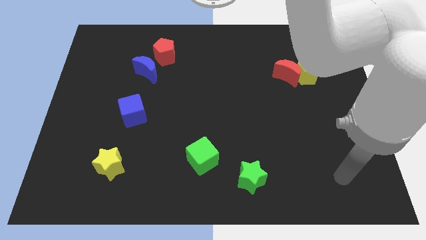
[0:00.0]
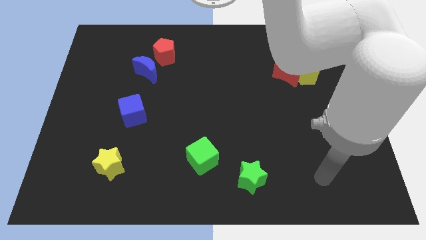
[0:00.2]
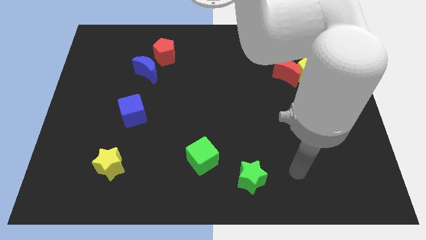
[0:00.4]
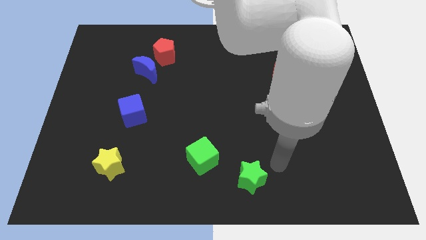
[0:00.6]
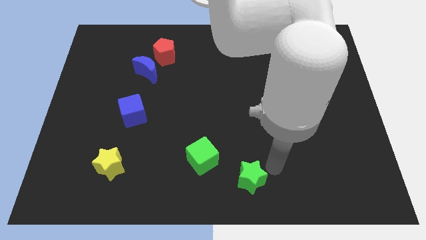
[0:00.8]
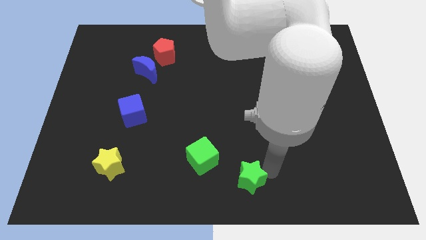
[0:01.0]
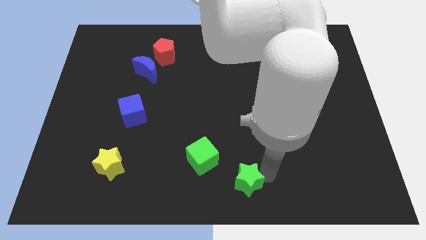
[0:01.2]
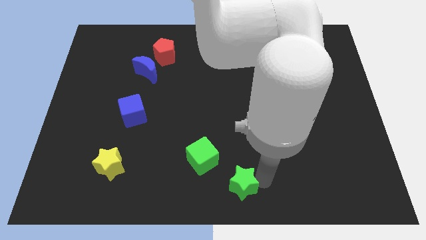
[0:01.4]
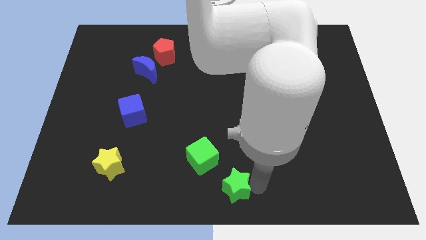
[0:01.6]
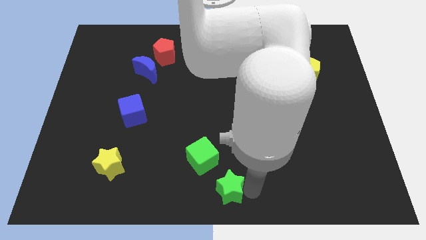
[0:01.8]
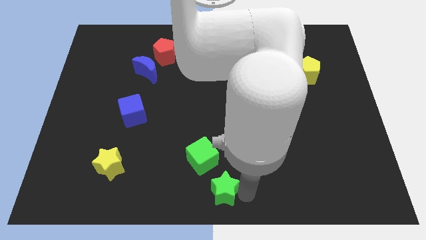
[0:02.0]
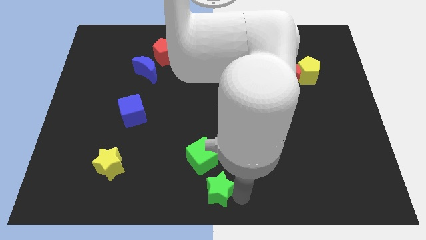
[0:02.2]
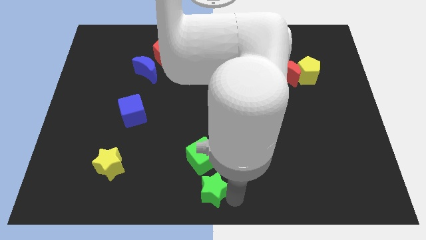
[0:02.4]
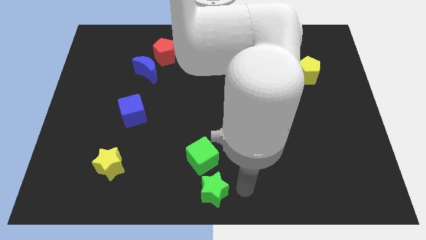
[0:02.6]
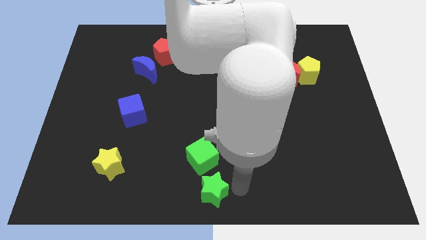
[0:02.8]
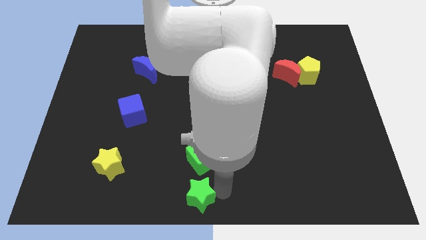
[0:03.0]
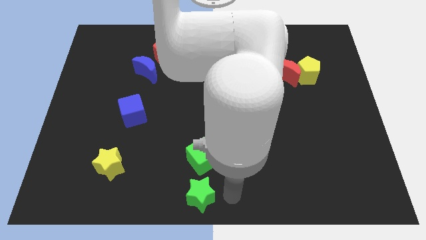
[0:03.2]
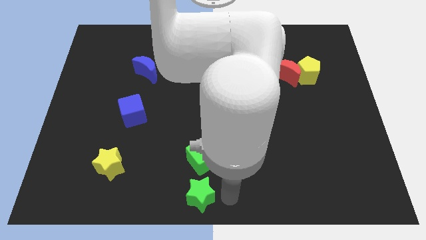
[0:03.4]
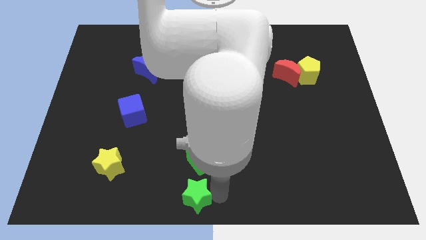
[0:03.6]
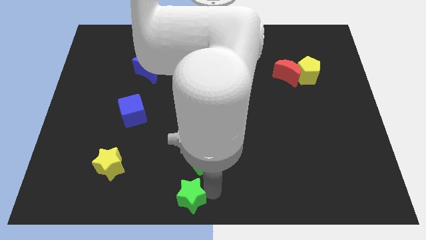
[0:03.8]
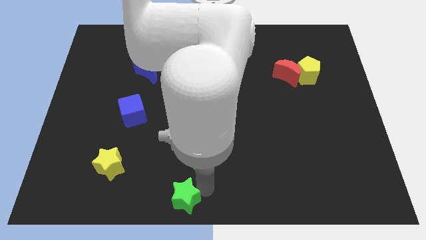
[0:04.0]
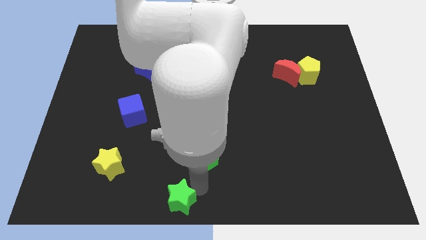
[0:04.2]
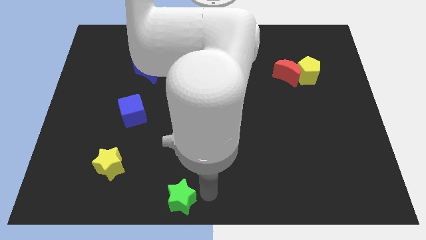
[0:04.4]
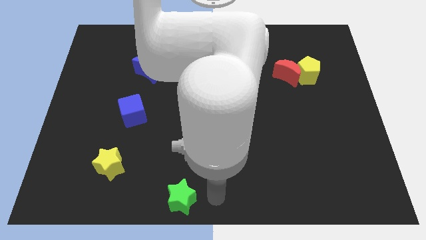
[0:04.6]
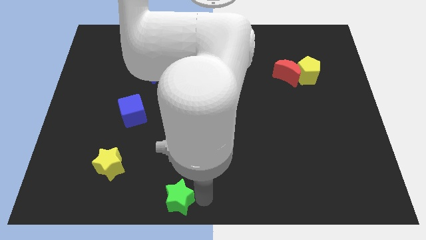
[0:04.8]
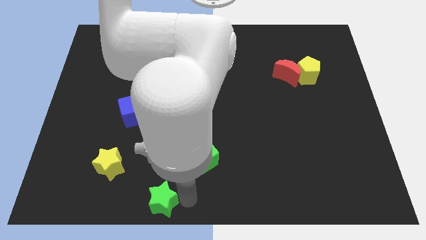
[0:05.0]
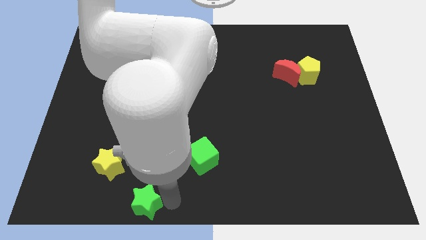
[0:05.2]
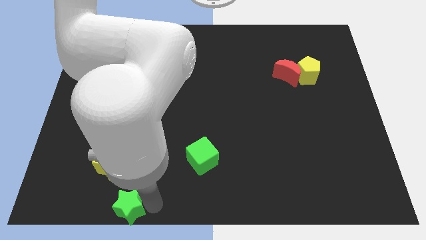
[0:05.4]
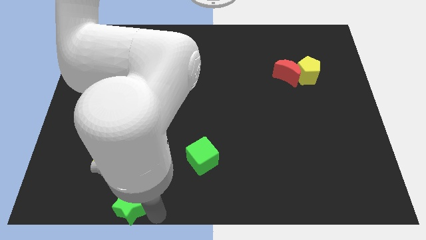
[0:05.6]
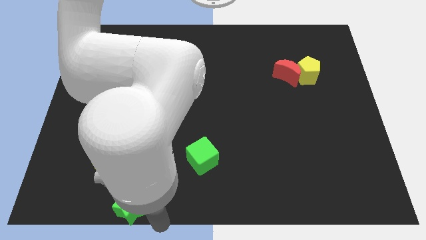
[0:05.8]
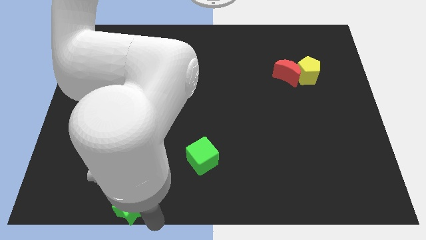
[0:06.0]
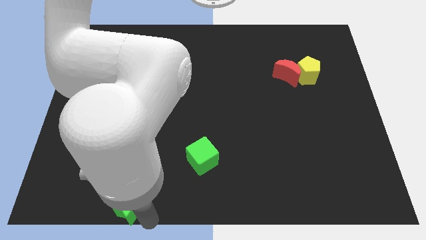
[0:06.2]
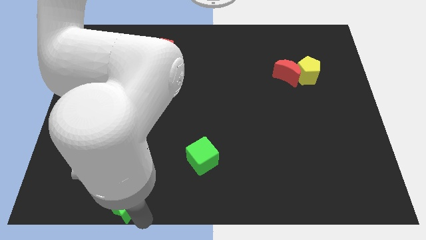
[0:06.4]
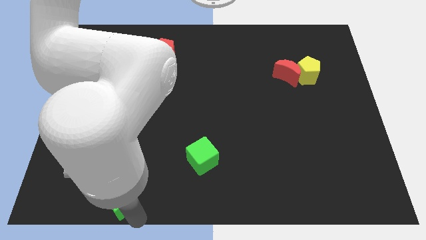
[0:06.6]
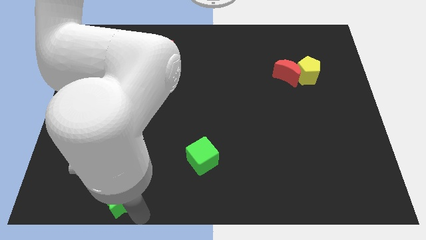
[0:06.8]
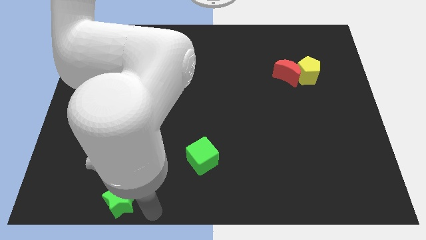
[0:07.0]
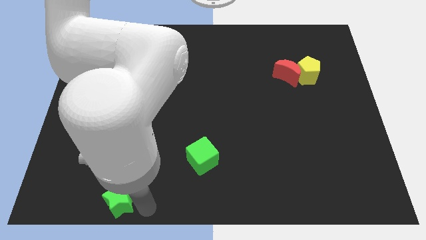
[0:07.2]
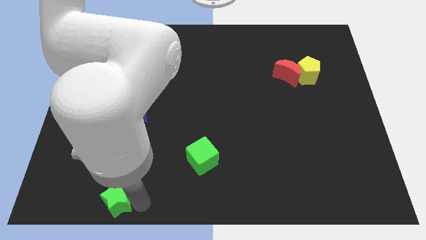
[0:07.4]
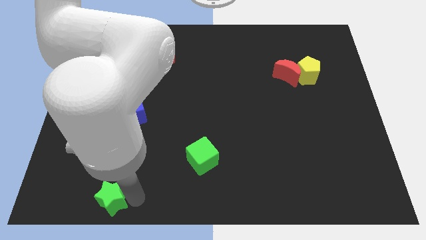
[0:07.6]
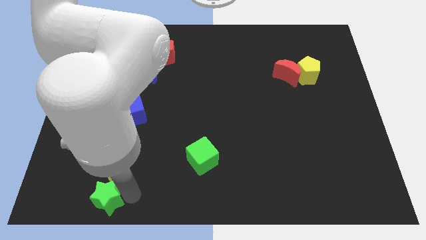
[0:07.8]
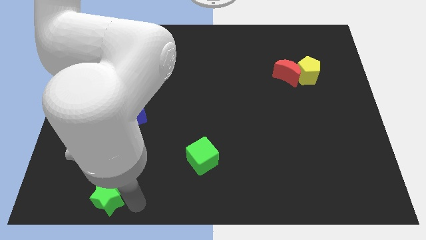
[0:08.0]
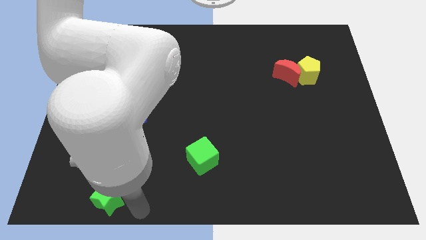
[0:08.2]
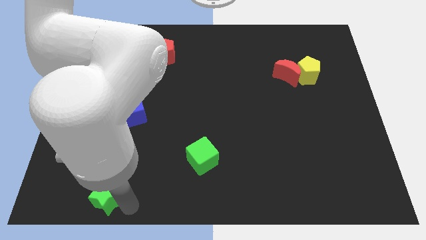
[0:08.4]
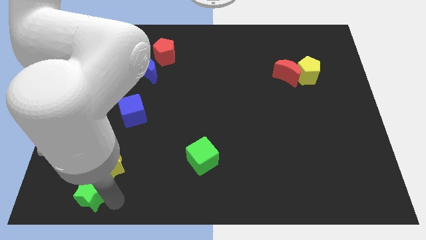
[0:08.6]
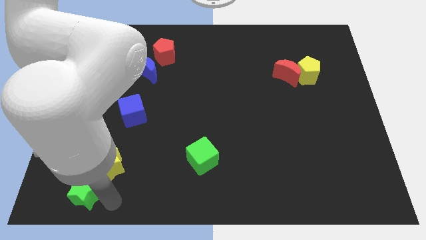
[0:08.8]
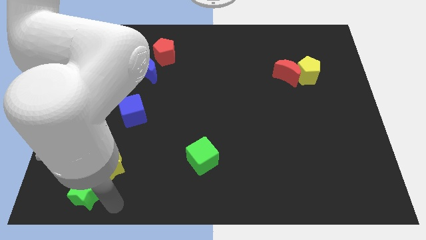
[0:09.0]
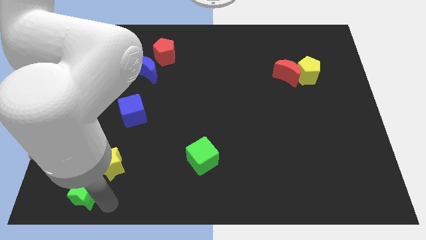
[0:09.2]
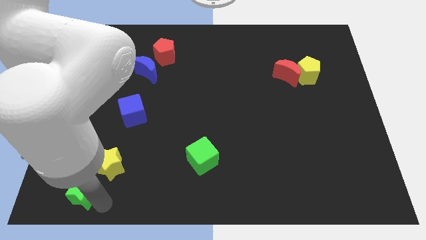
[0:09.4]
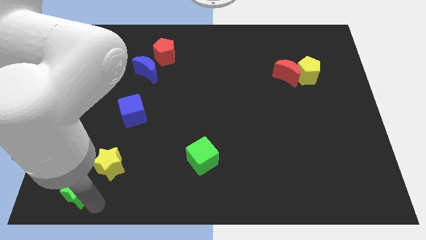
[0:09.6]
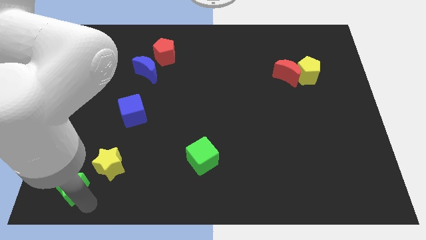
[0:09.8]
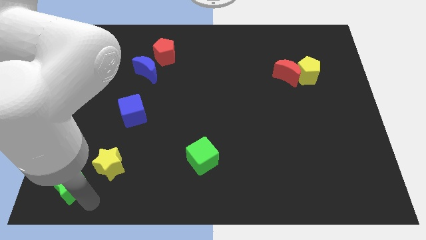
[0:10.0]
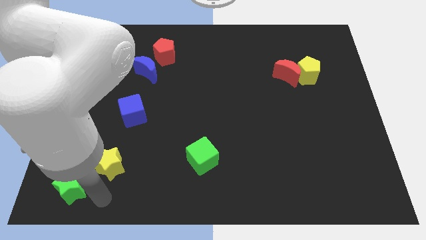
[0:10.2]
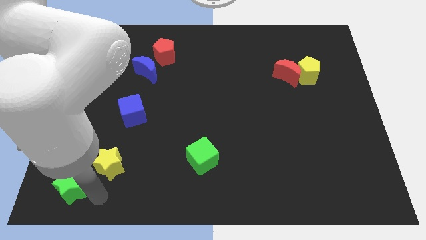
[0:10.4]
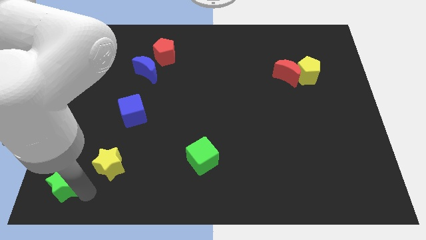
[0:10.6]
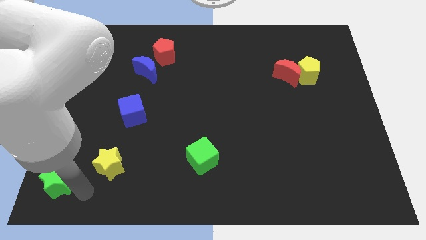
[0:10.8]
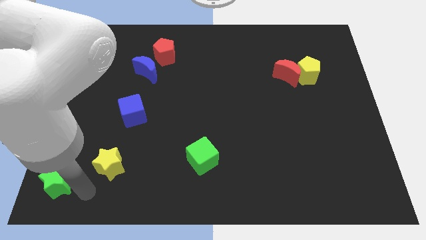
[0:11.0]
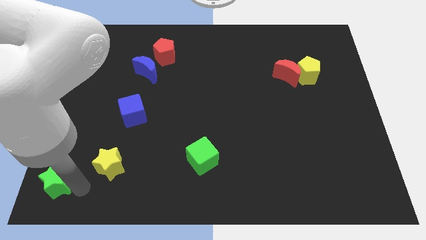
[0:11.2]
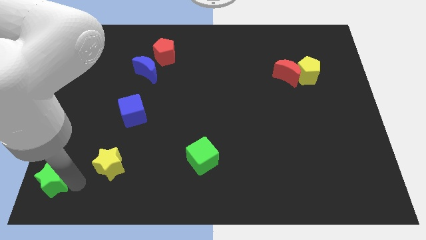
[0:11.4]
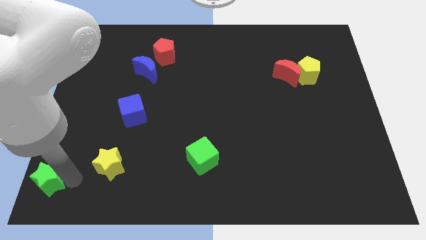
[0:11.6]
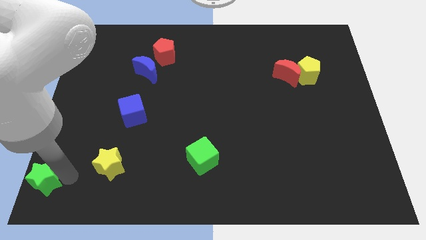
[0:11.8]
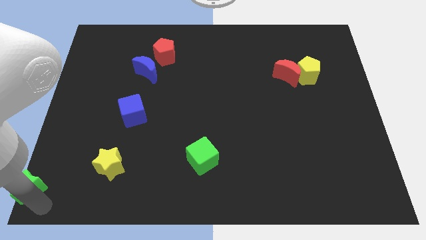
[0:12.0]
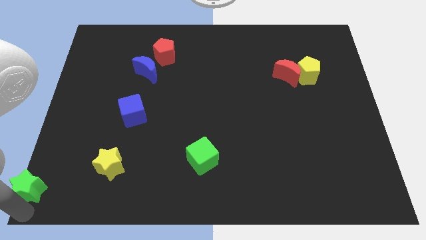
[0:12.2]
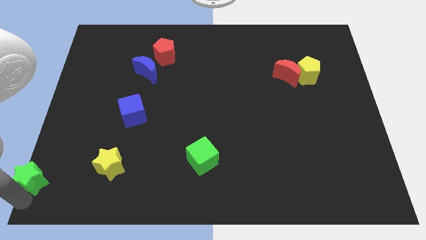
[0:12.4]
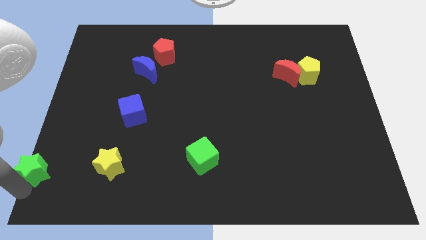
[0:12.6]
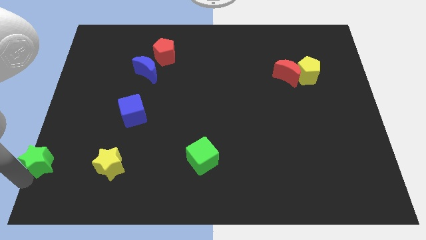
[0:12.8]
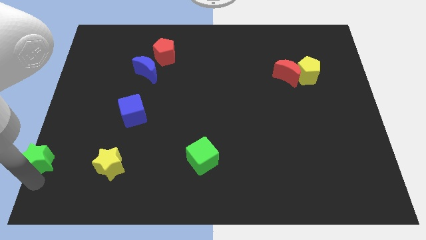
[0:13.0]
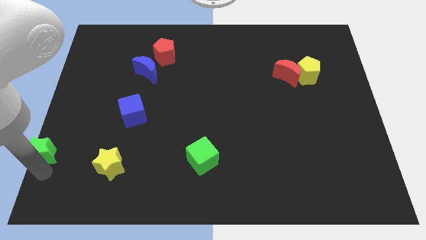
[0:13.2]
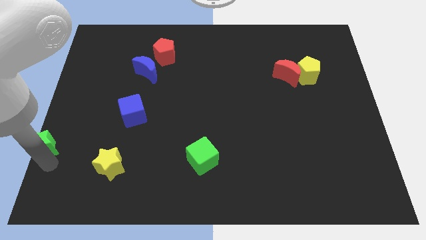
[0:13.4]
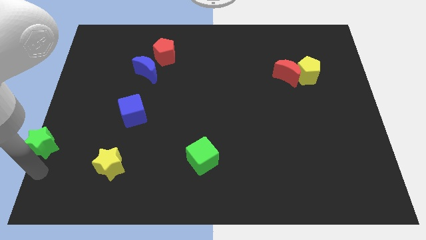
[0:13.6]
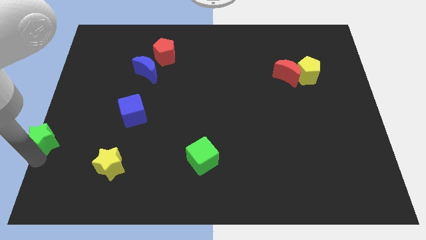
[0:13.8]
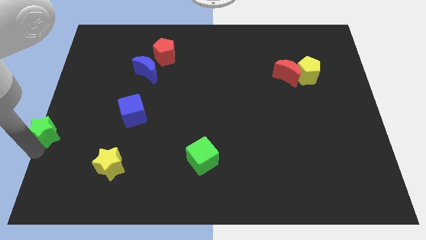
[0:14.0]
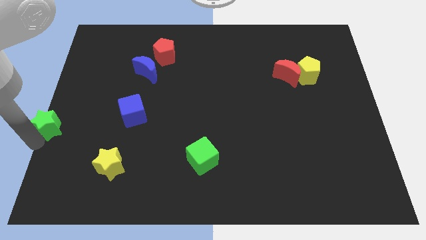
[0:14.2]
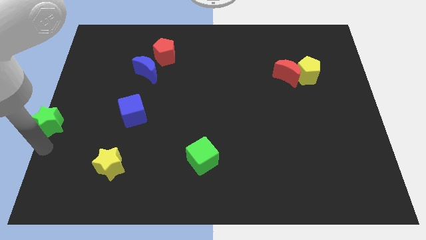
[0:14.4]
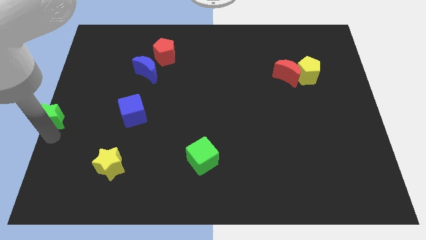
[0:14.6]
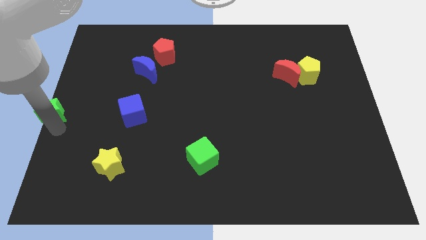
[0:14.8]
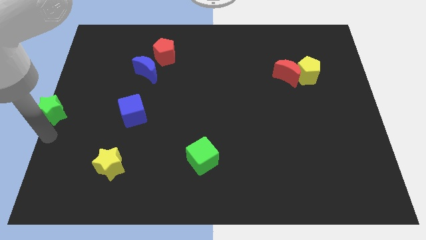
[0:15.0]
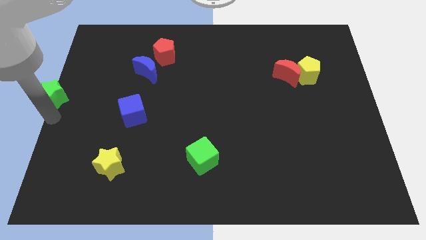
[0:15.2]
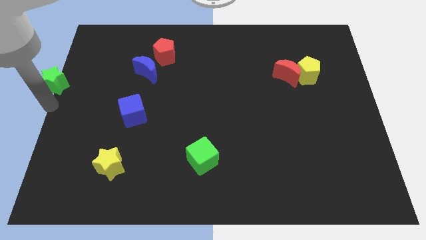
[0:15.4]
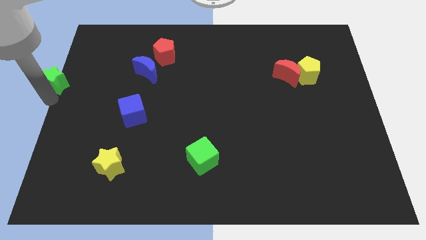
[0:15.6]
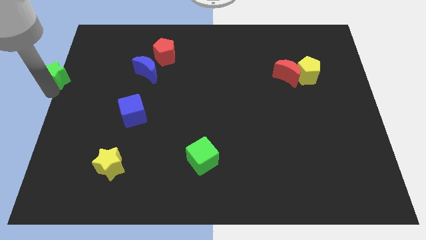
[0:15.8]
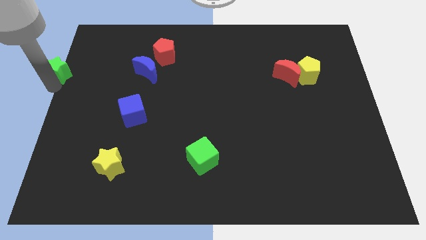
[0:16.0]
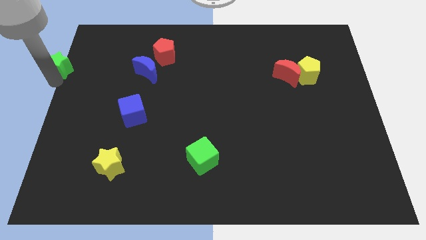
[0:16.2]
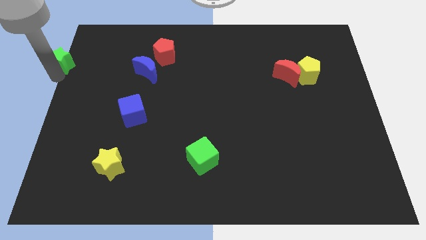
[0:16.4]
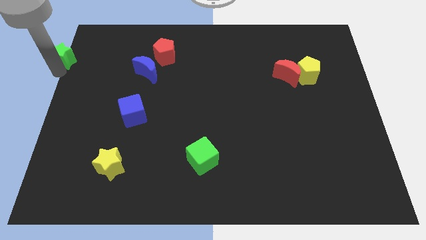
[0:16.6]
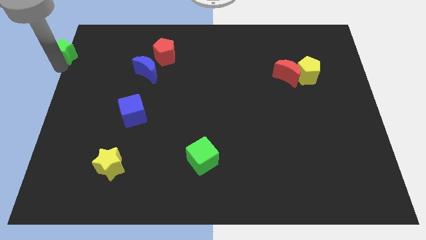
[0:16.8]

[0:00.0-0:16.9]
slide the green star to the top left
